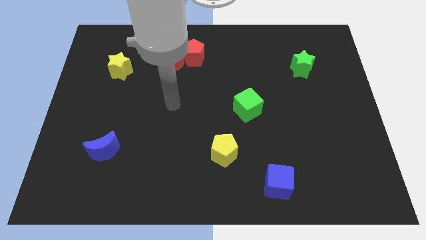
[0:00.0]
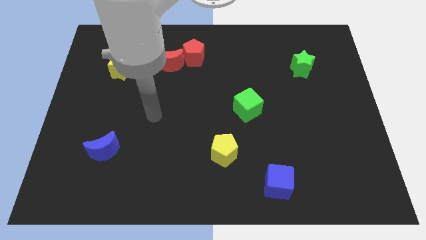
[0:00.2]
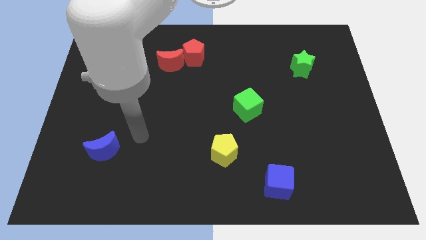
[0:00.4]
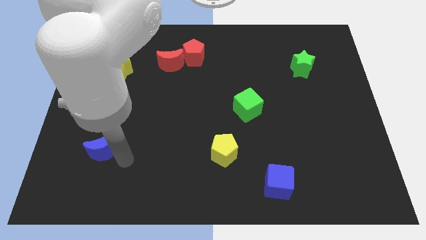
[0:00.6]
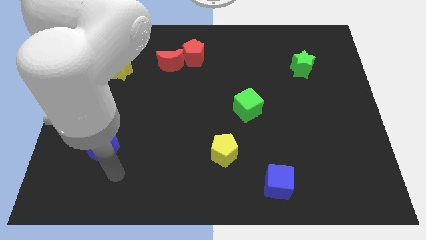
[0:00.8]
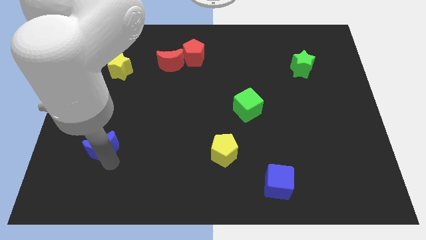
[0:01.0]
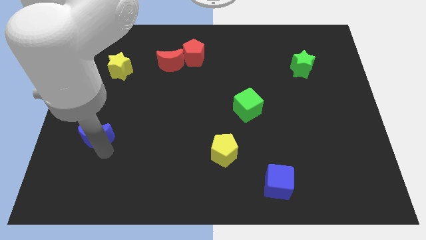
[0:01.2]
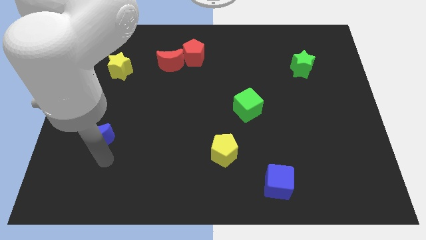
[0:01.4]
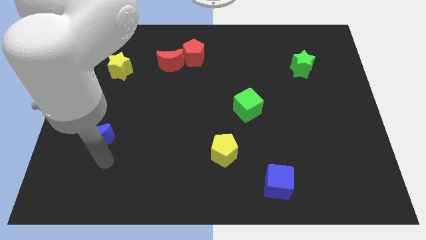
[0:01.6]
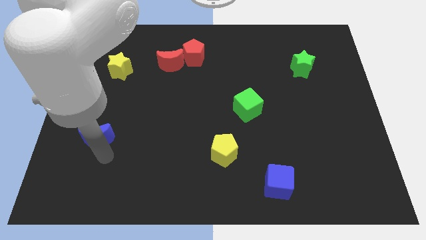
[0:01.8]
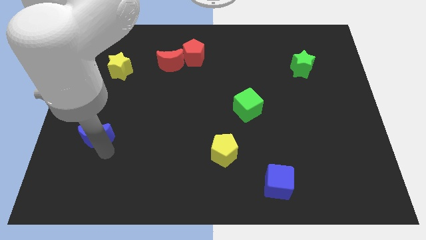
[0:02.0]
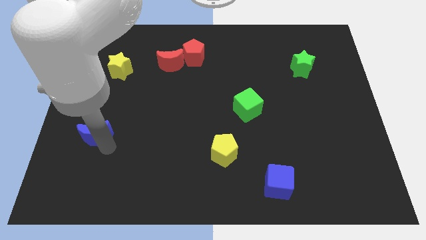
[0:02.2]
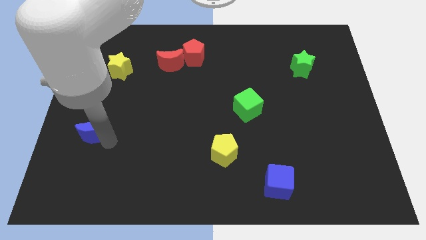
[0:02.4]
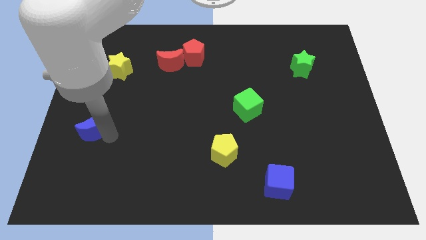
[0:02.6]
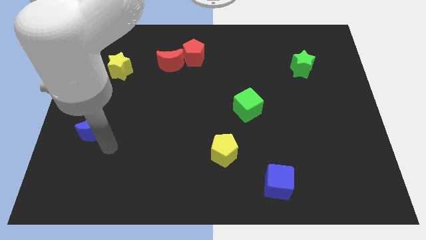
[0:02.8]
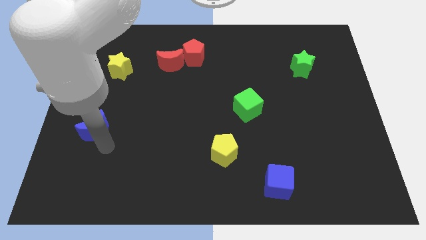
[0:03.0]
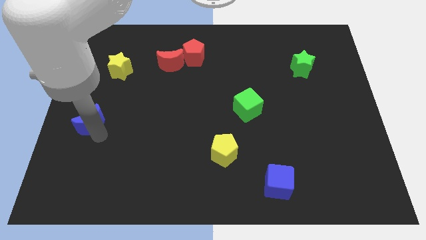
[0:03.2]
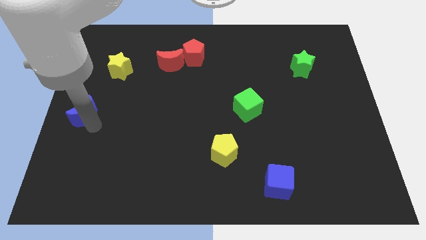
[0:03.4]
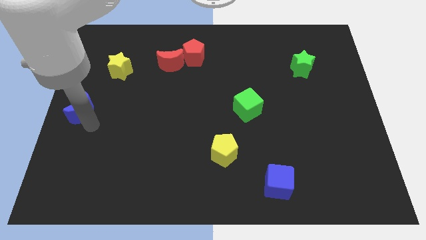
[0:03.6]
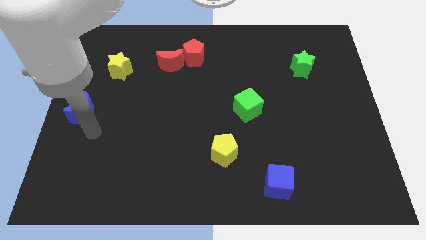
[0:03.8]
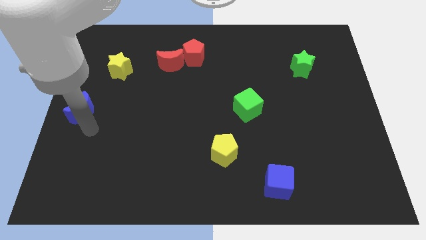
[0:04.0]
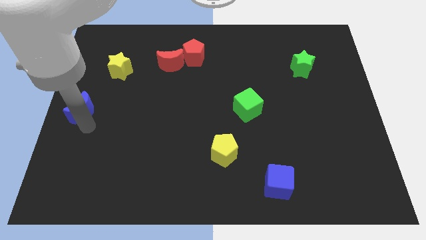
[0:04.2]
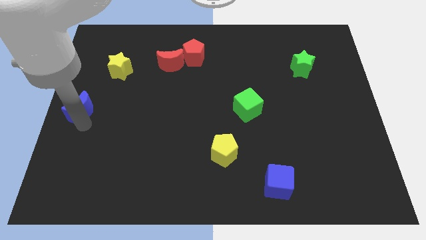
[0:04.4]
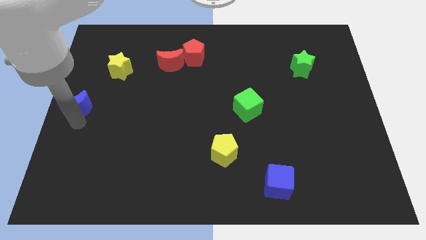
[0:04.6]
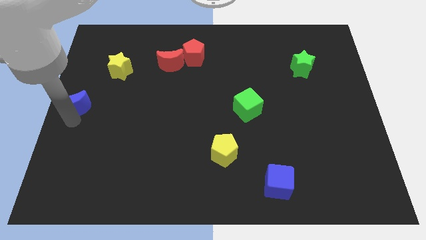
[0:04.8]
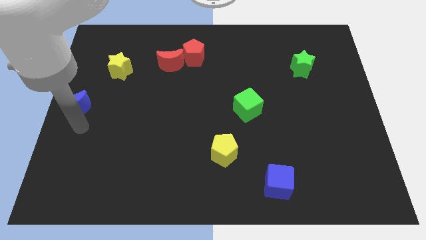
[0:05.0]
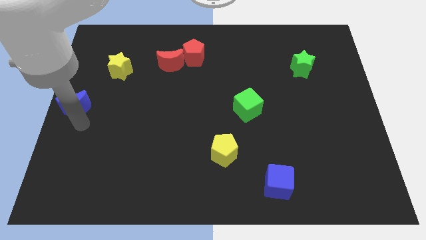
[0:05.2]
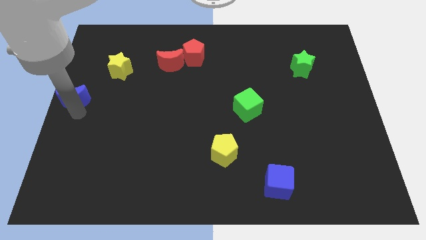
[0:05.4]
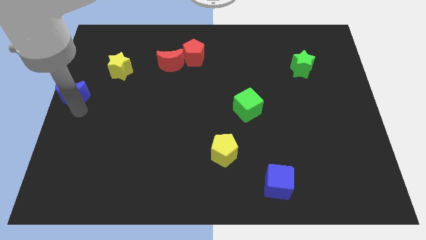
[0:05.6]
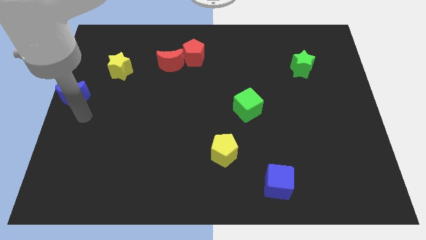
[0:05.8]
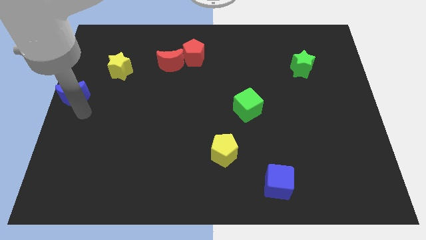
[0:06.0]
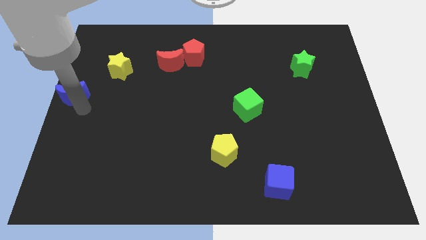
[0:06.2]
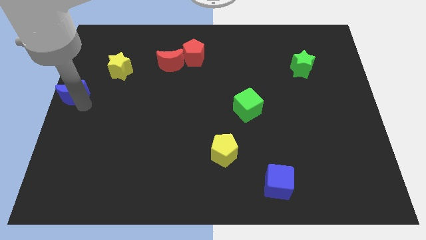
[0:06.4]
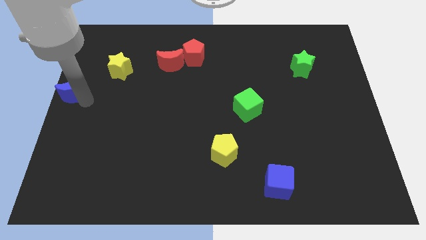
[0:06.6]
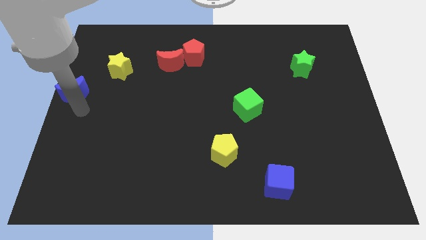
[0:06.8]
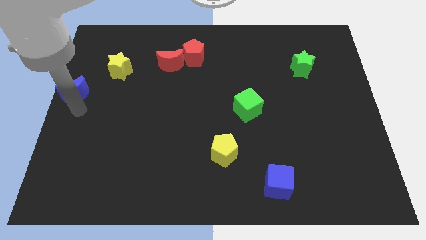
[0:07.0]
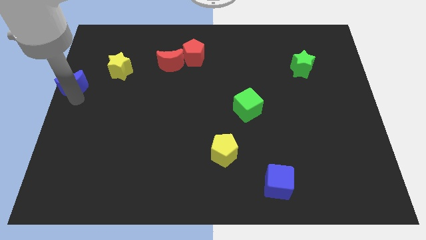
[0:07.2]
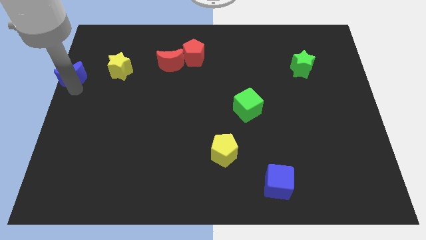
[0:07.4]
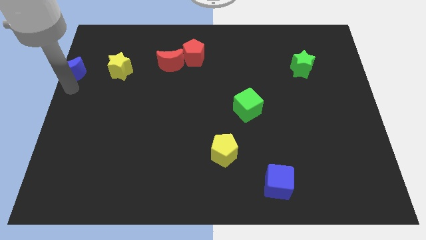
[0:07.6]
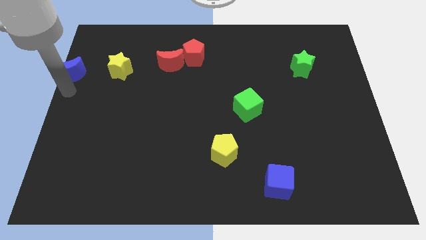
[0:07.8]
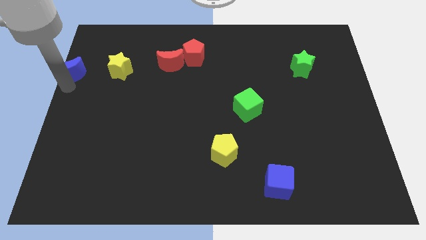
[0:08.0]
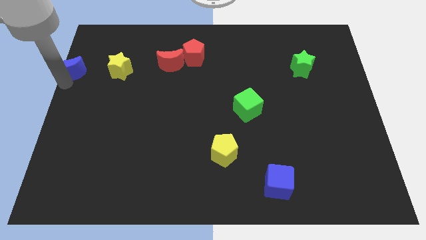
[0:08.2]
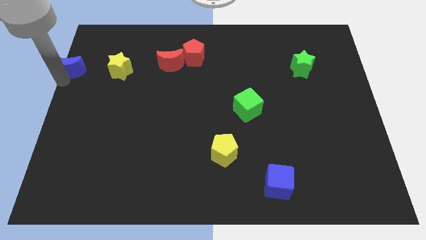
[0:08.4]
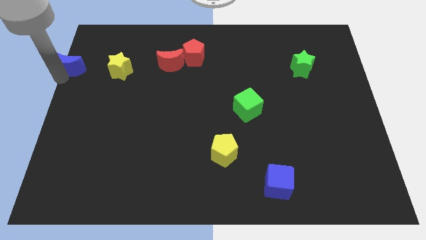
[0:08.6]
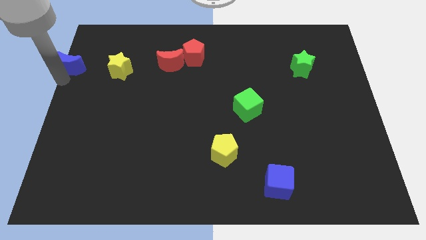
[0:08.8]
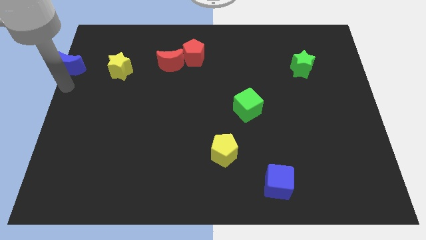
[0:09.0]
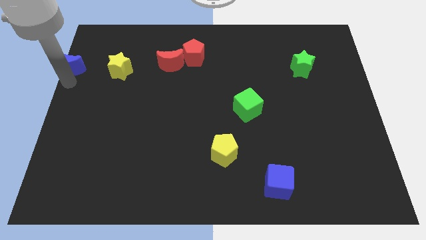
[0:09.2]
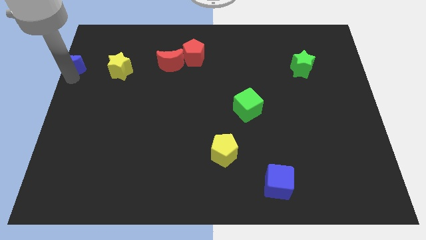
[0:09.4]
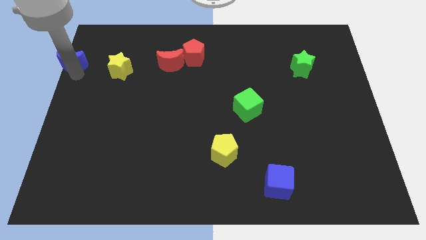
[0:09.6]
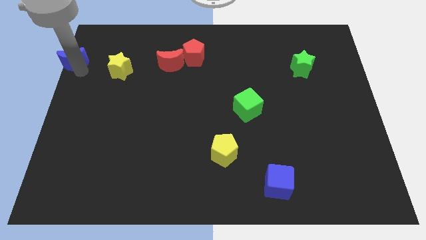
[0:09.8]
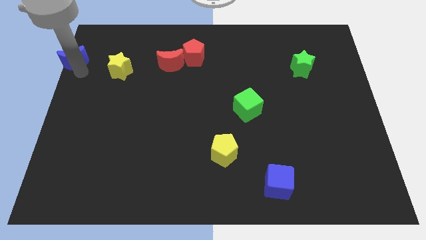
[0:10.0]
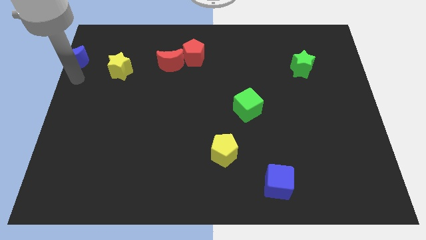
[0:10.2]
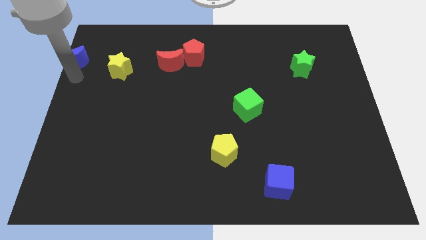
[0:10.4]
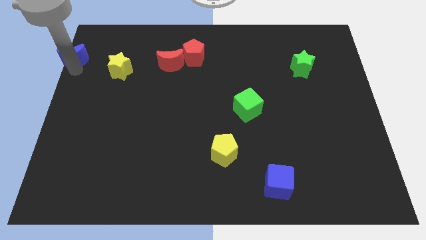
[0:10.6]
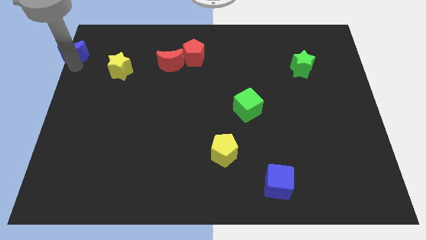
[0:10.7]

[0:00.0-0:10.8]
slide the blue moon to the top left

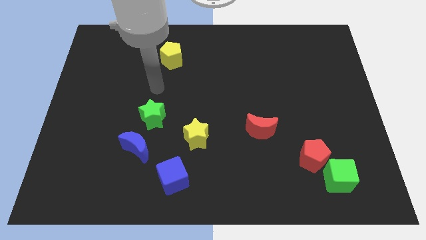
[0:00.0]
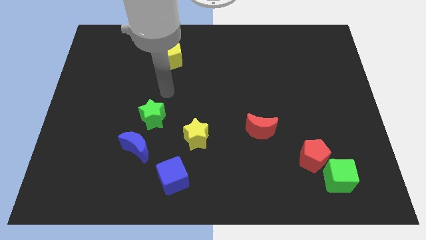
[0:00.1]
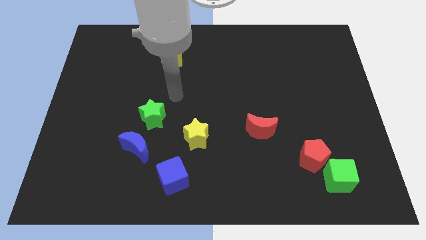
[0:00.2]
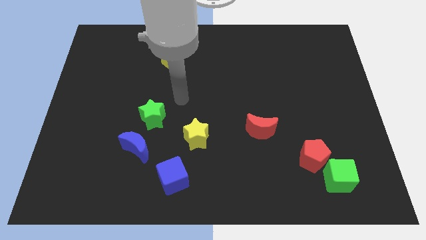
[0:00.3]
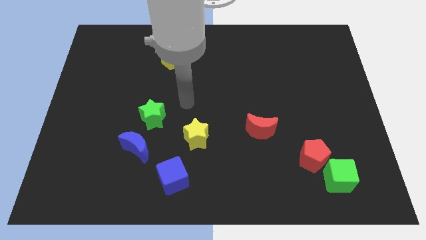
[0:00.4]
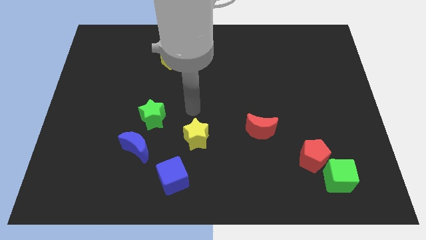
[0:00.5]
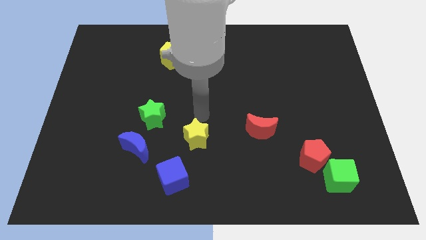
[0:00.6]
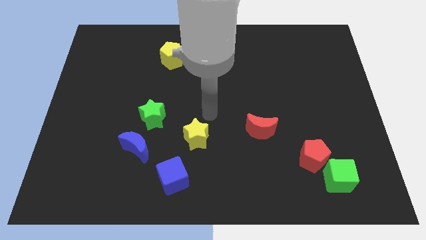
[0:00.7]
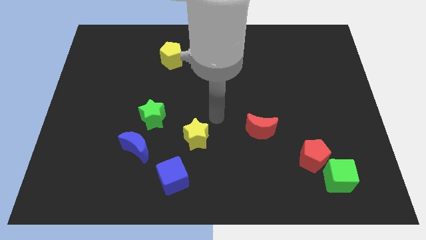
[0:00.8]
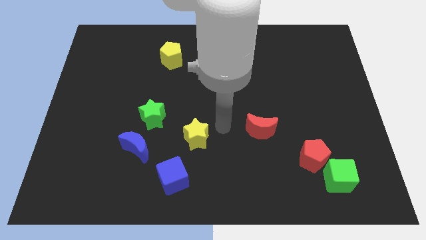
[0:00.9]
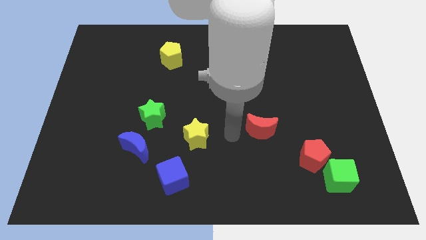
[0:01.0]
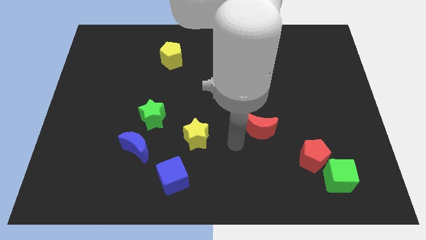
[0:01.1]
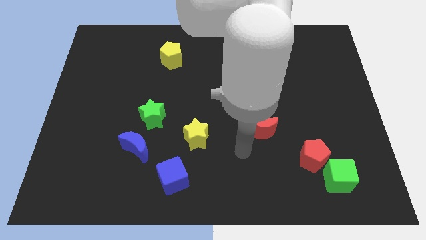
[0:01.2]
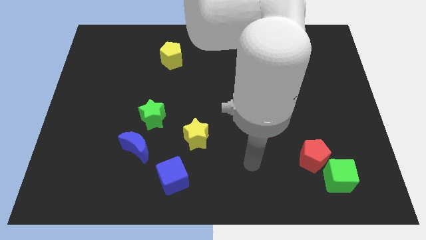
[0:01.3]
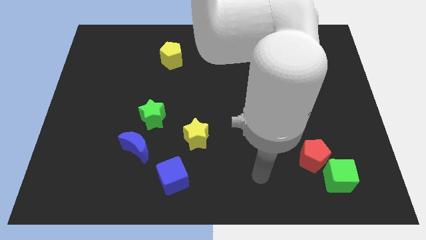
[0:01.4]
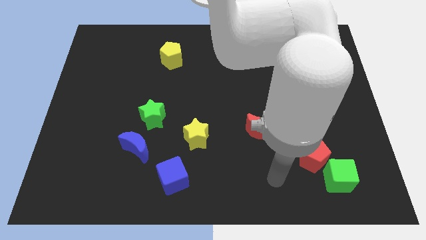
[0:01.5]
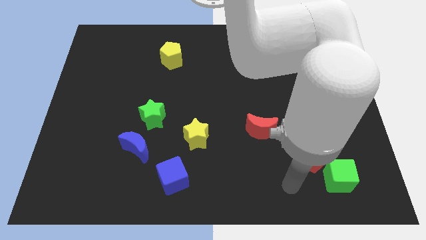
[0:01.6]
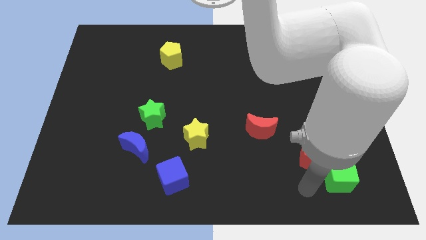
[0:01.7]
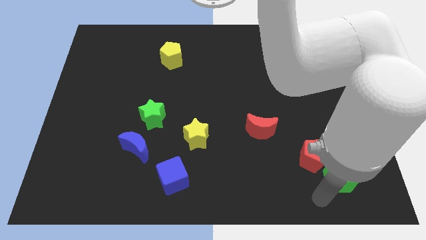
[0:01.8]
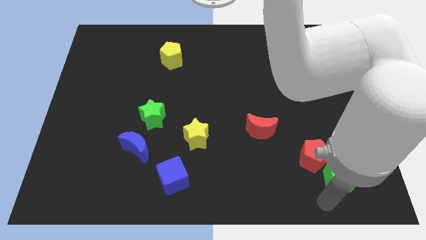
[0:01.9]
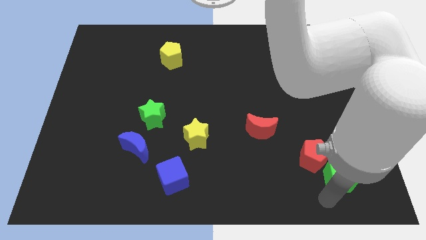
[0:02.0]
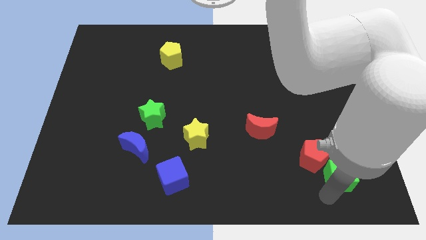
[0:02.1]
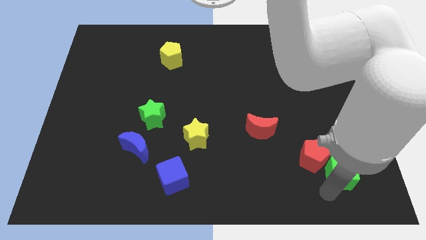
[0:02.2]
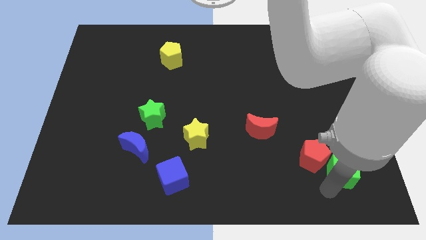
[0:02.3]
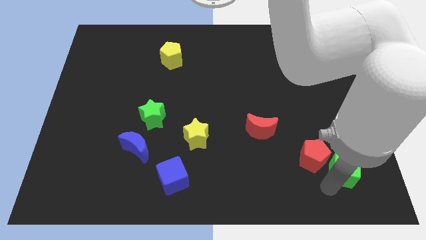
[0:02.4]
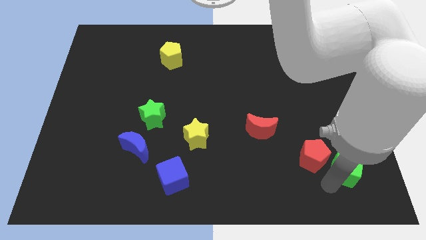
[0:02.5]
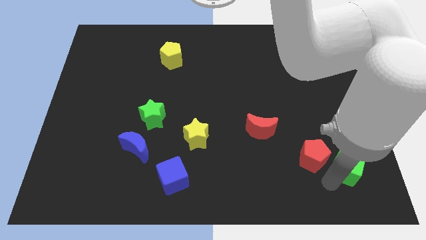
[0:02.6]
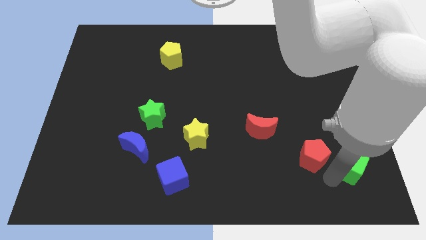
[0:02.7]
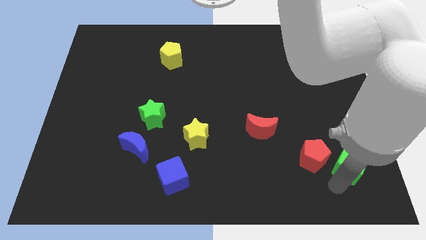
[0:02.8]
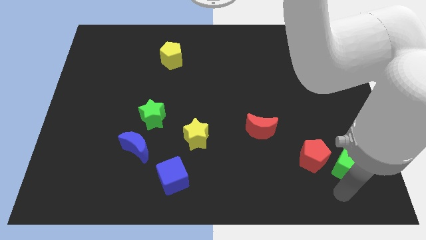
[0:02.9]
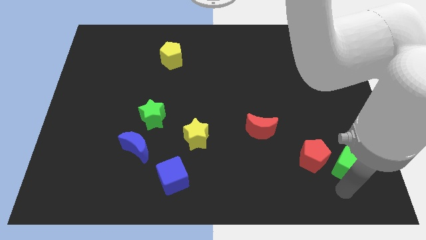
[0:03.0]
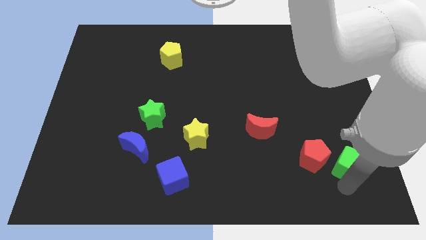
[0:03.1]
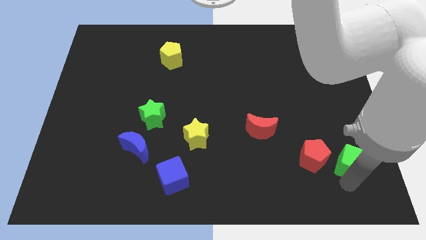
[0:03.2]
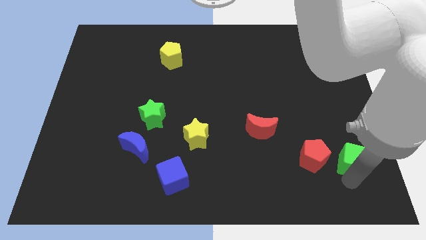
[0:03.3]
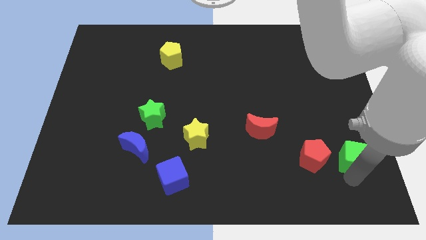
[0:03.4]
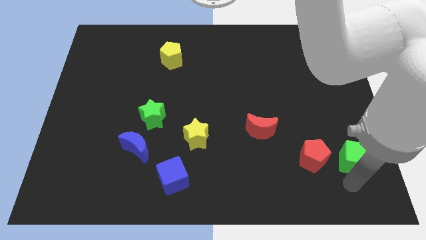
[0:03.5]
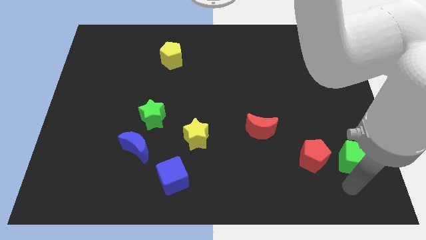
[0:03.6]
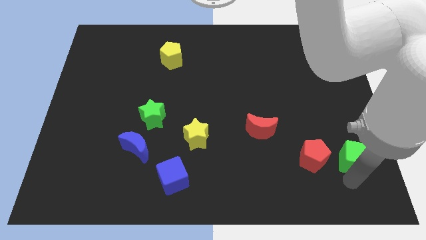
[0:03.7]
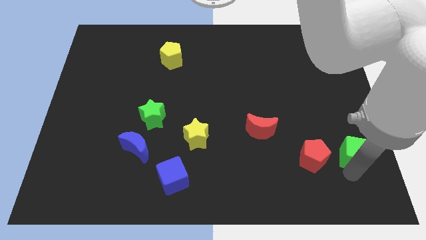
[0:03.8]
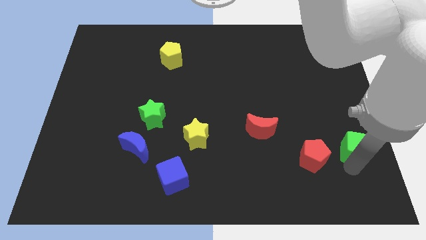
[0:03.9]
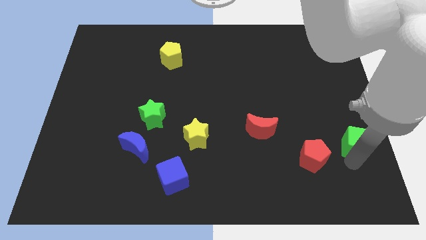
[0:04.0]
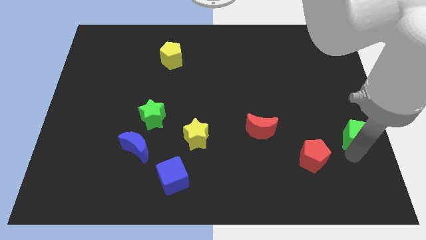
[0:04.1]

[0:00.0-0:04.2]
move the green cube to the right side of the board
